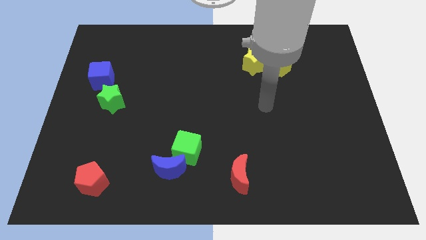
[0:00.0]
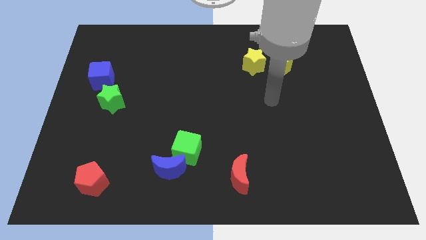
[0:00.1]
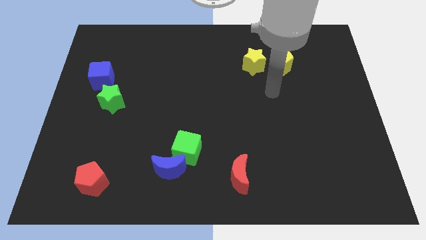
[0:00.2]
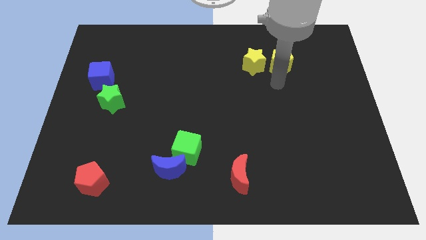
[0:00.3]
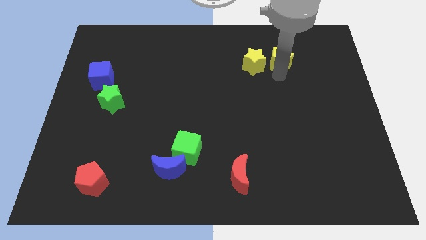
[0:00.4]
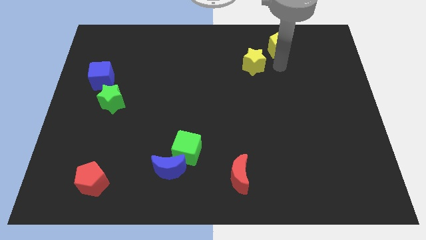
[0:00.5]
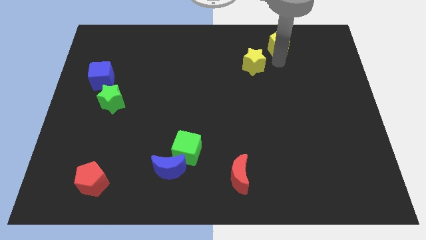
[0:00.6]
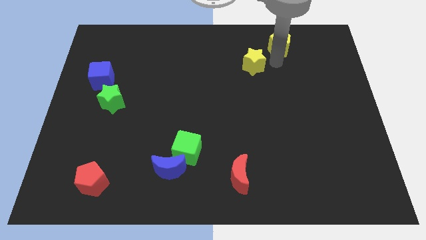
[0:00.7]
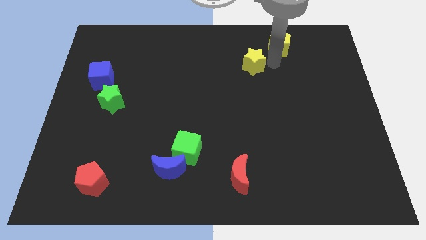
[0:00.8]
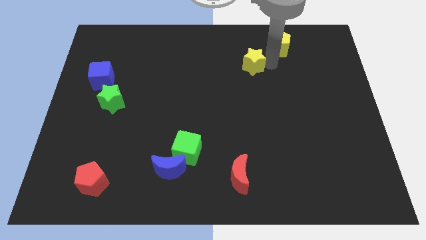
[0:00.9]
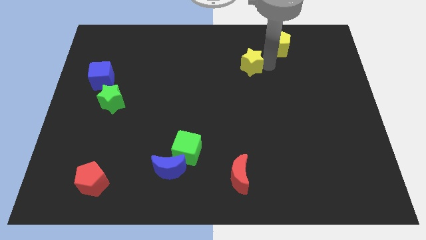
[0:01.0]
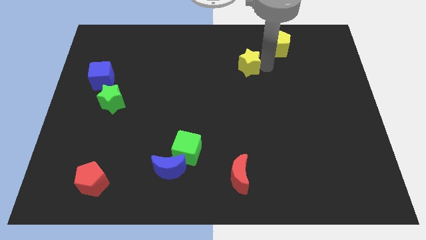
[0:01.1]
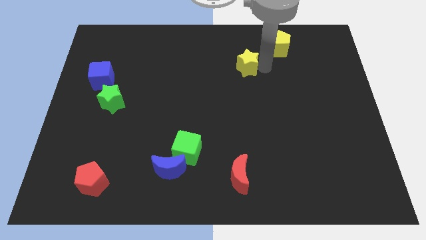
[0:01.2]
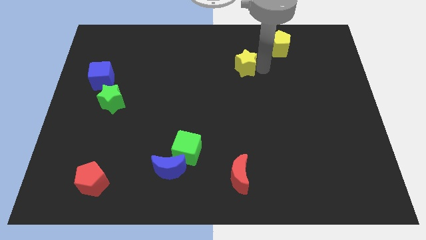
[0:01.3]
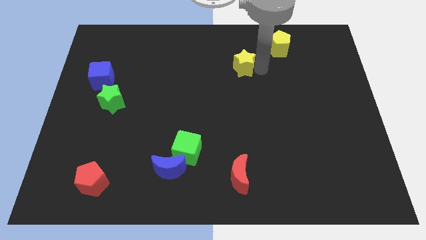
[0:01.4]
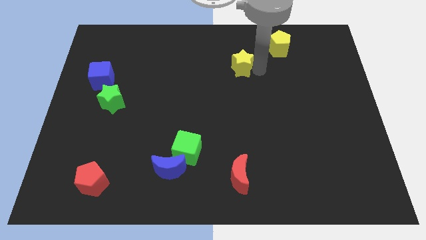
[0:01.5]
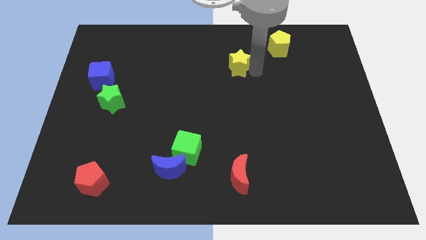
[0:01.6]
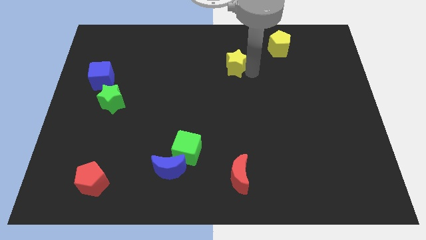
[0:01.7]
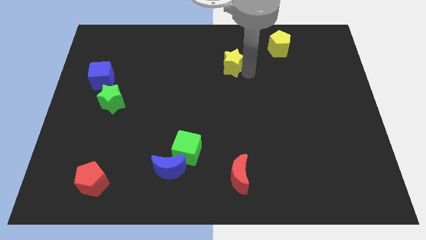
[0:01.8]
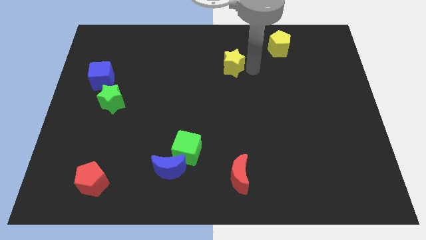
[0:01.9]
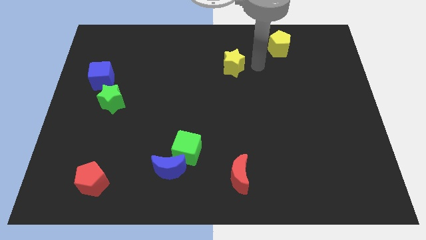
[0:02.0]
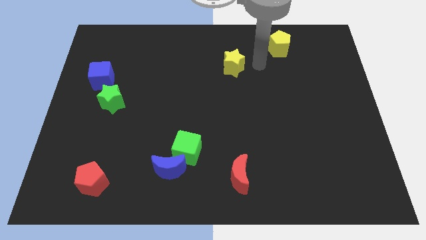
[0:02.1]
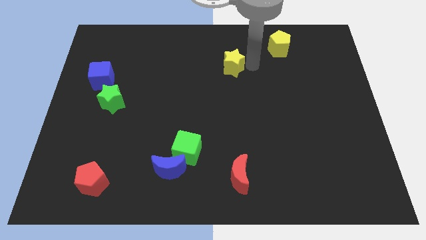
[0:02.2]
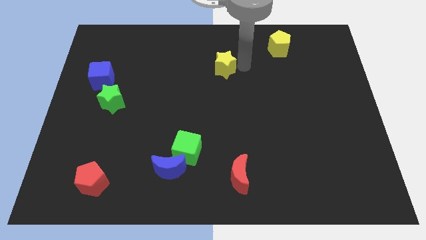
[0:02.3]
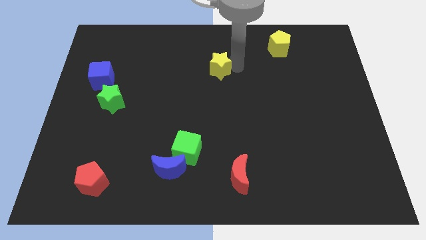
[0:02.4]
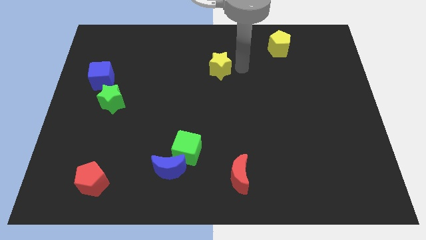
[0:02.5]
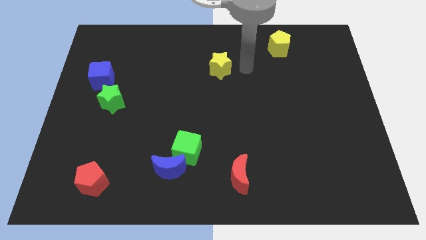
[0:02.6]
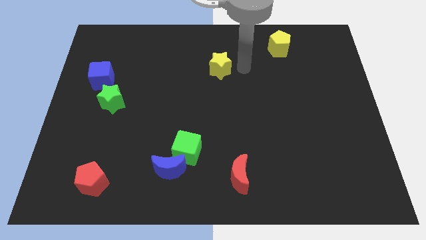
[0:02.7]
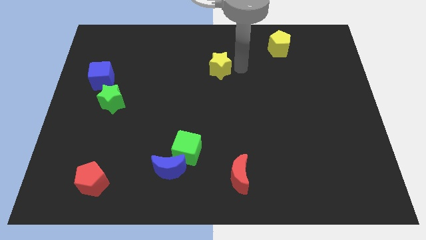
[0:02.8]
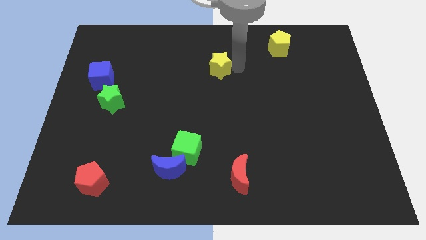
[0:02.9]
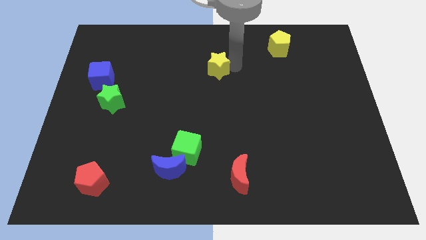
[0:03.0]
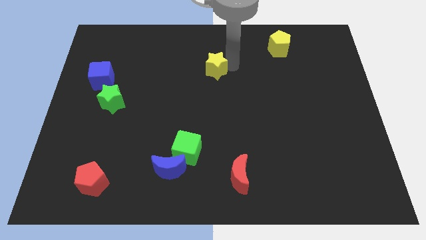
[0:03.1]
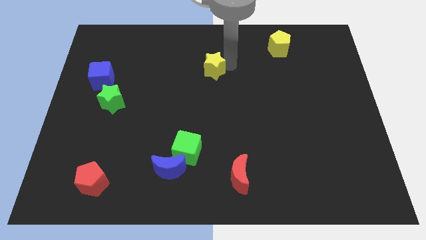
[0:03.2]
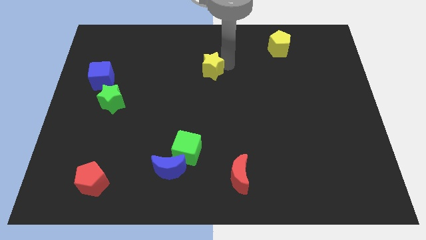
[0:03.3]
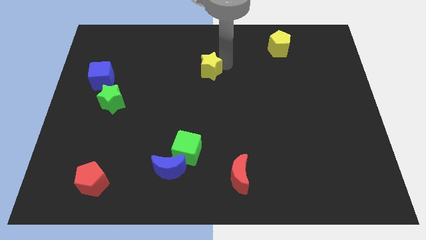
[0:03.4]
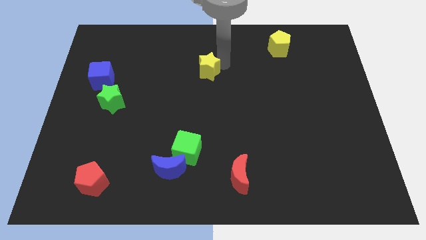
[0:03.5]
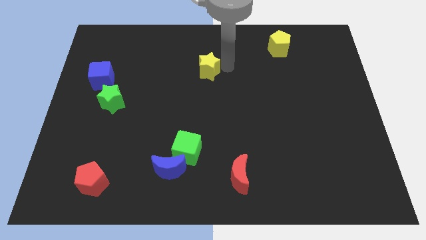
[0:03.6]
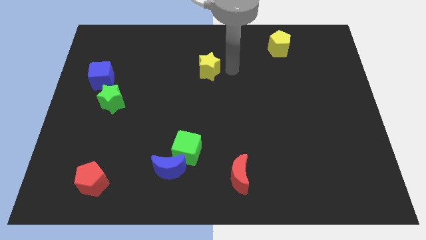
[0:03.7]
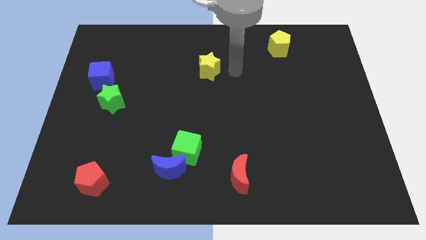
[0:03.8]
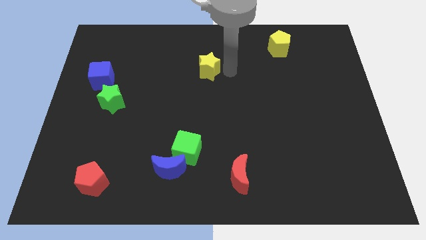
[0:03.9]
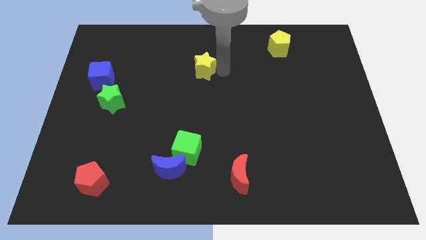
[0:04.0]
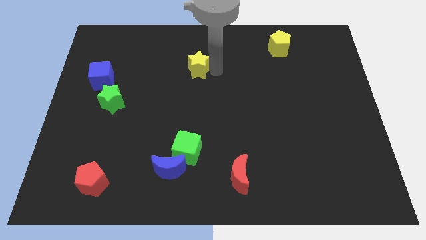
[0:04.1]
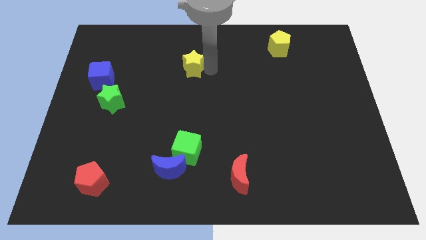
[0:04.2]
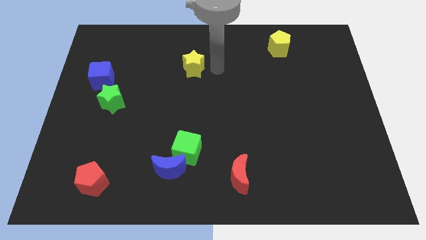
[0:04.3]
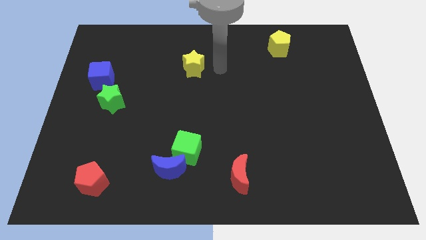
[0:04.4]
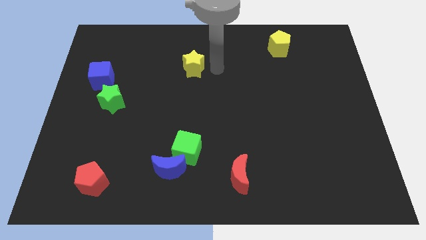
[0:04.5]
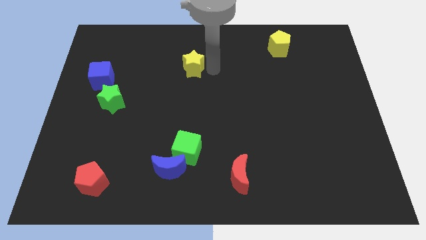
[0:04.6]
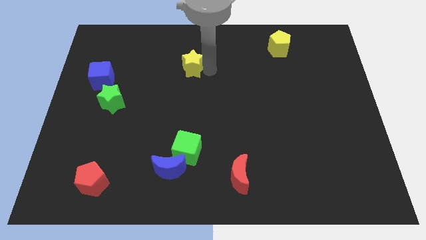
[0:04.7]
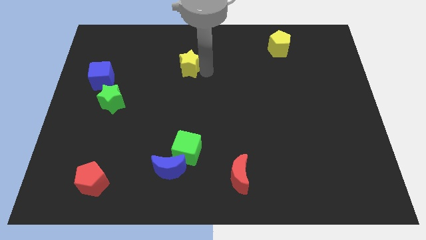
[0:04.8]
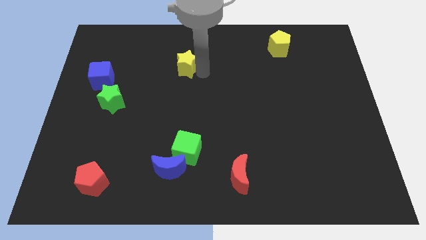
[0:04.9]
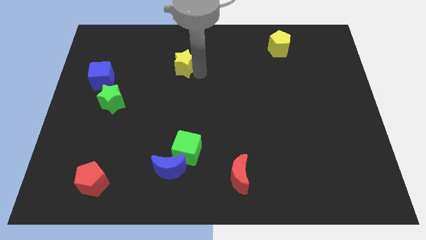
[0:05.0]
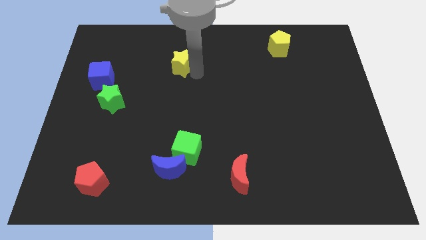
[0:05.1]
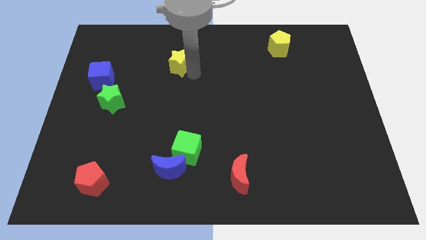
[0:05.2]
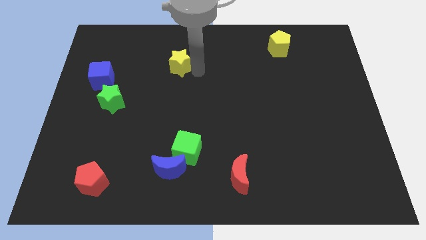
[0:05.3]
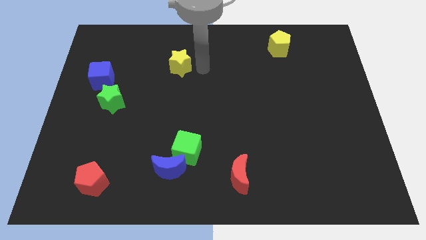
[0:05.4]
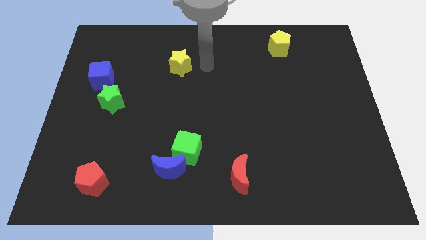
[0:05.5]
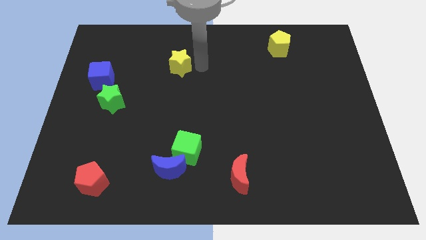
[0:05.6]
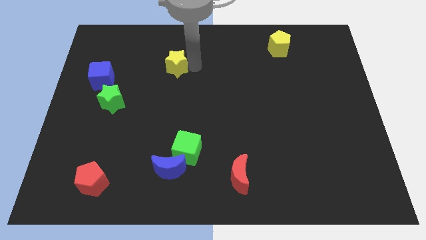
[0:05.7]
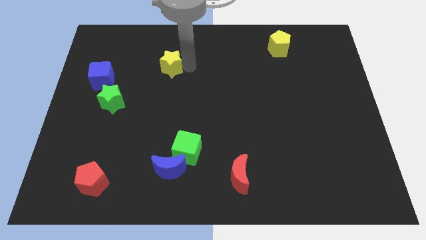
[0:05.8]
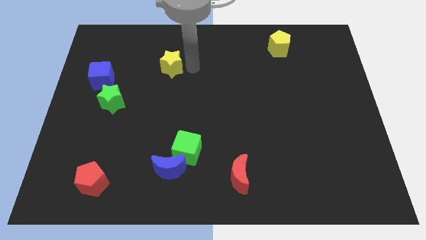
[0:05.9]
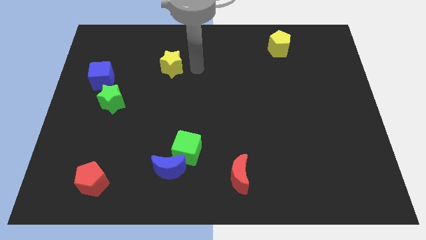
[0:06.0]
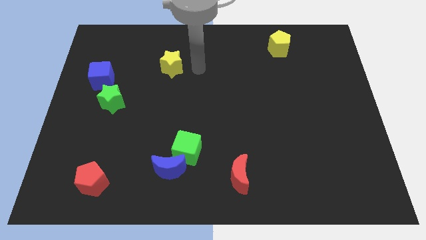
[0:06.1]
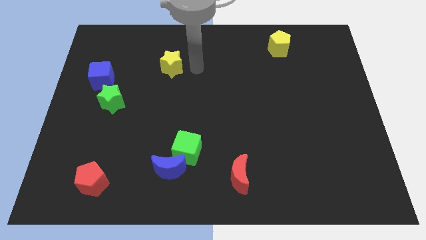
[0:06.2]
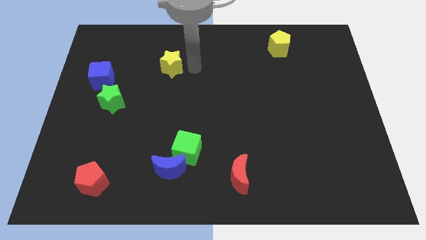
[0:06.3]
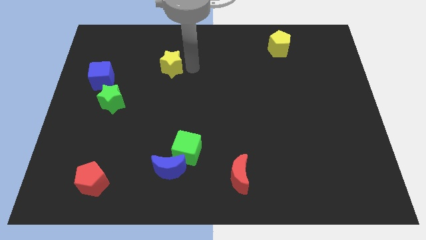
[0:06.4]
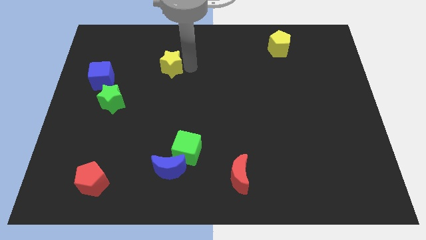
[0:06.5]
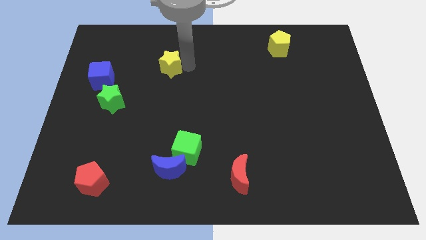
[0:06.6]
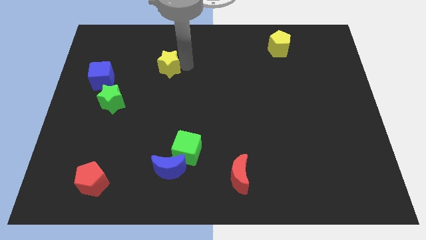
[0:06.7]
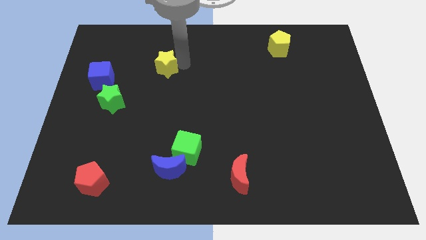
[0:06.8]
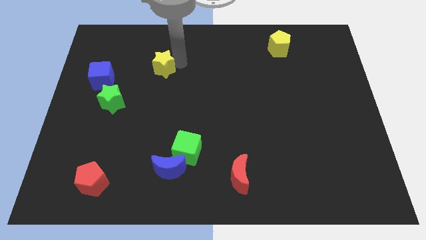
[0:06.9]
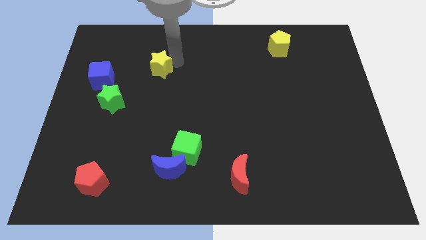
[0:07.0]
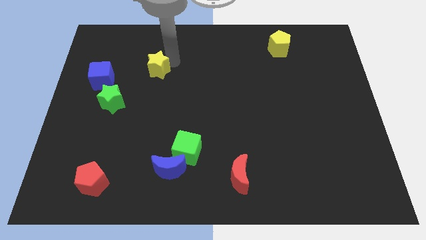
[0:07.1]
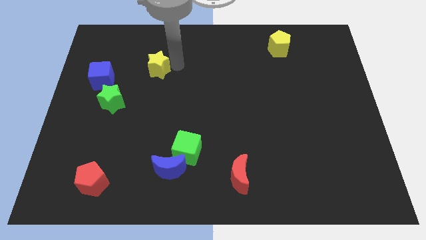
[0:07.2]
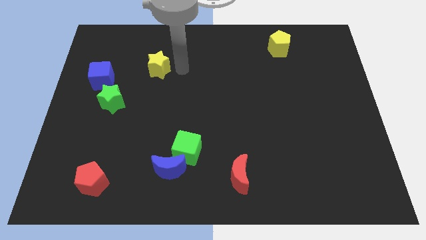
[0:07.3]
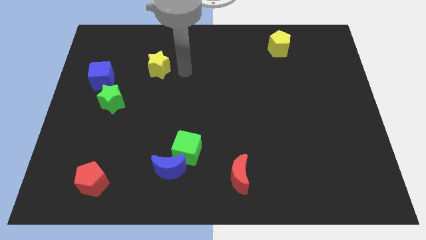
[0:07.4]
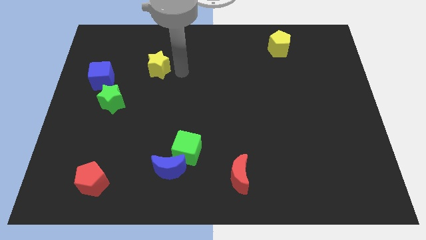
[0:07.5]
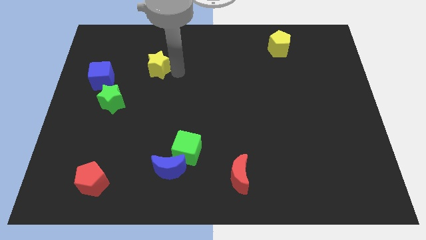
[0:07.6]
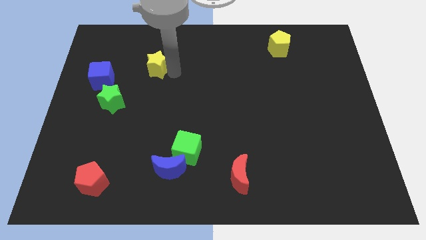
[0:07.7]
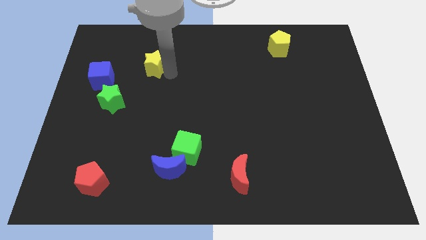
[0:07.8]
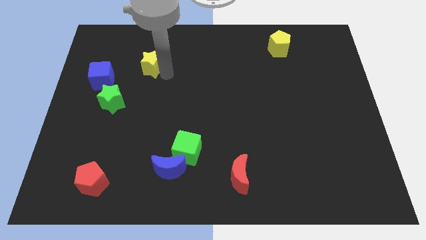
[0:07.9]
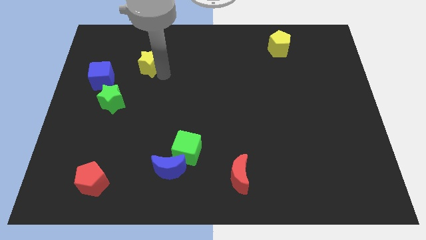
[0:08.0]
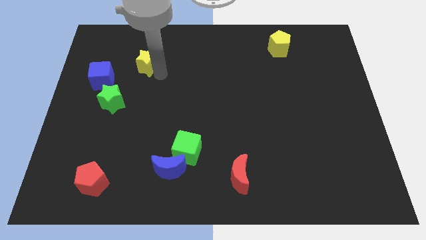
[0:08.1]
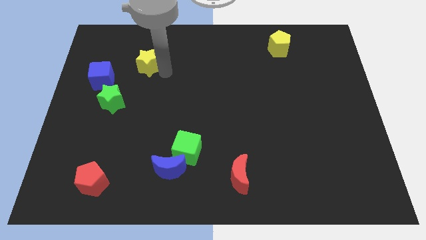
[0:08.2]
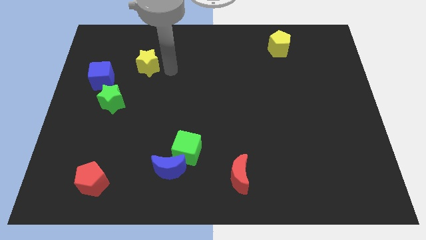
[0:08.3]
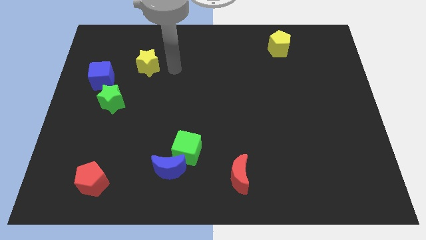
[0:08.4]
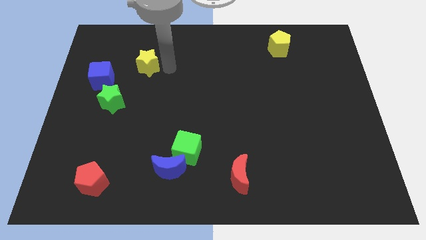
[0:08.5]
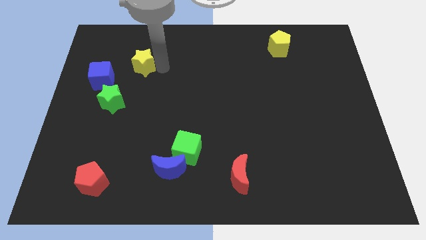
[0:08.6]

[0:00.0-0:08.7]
put the yellow star diagonally up and to the right of the blue cube
